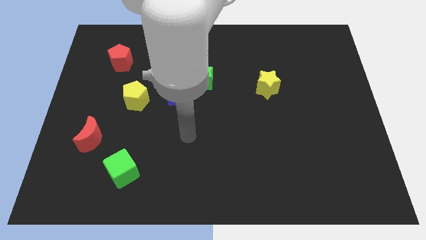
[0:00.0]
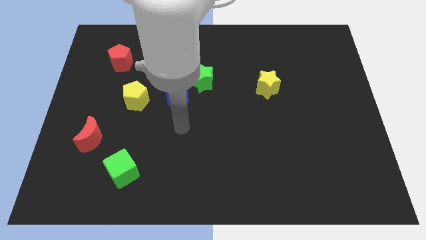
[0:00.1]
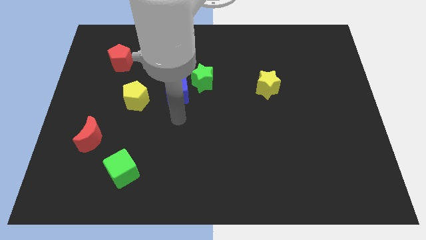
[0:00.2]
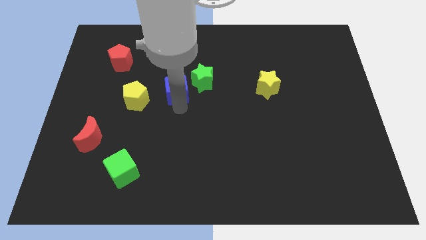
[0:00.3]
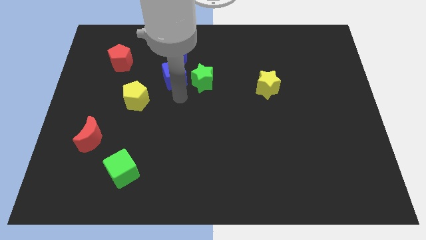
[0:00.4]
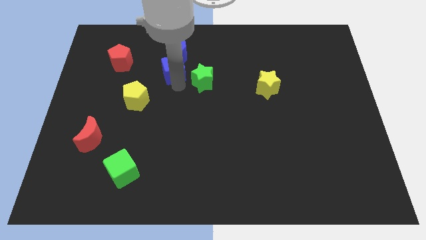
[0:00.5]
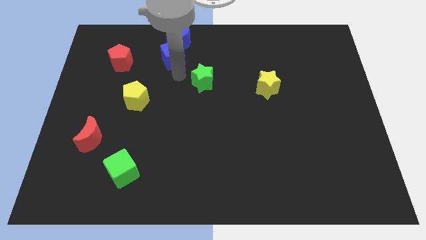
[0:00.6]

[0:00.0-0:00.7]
pull the green star apart from the blue cube

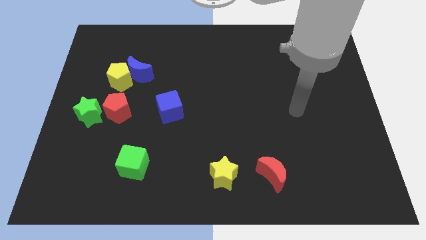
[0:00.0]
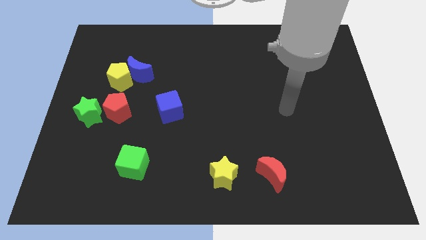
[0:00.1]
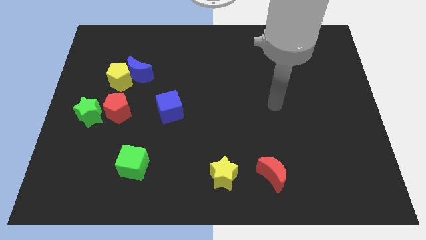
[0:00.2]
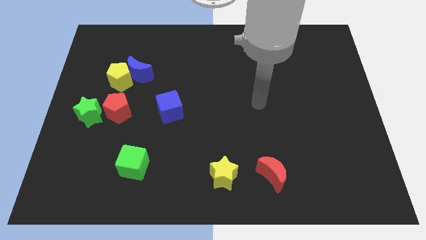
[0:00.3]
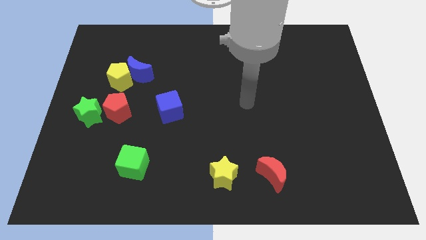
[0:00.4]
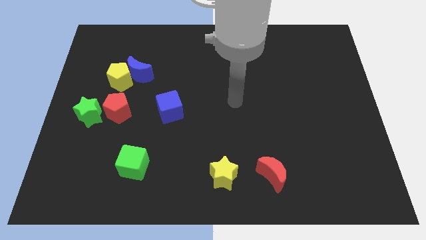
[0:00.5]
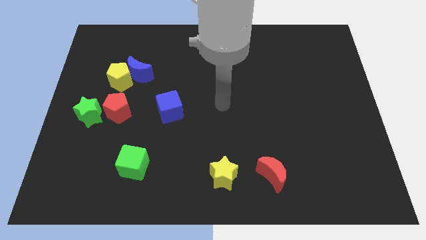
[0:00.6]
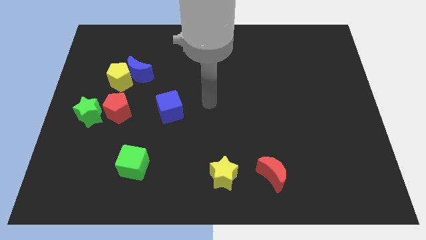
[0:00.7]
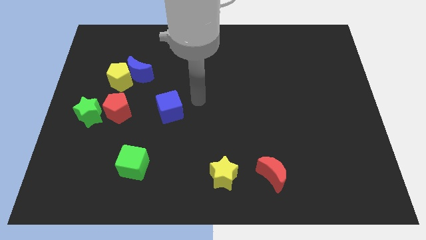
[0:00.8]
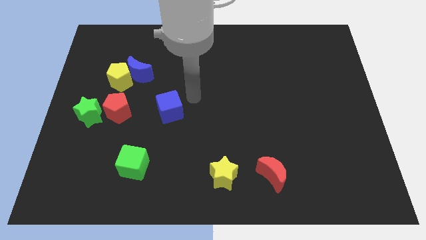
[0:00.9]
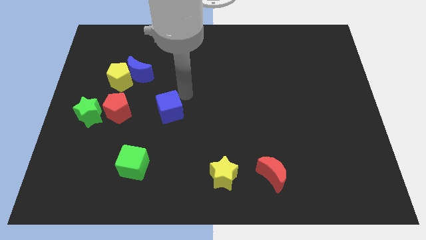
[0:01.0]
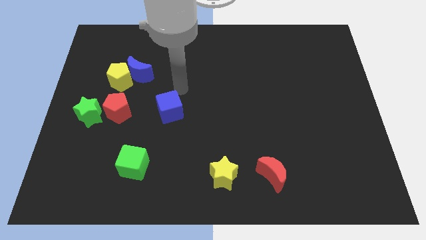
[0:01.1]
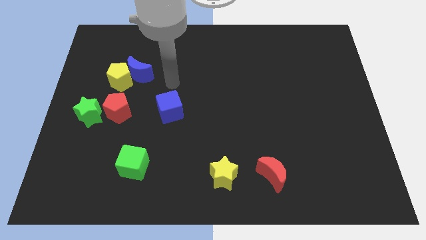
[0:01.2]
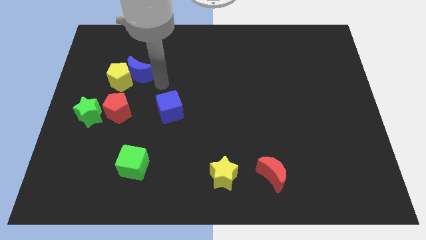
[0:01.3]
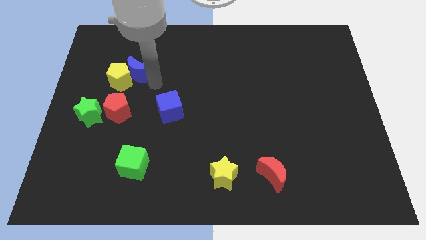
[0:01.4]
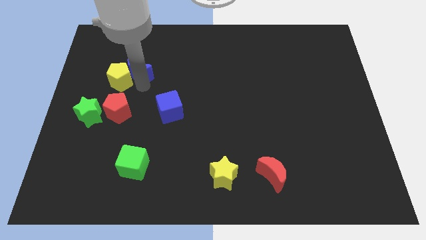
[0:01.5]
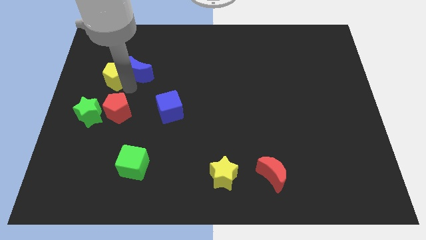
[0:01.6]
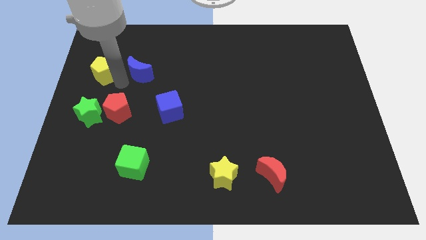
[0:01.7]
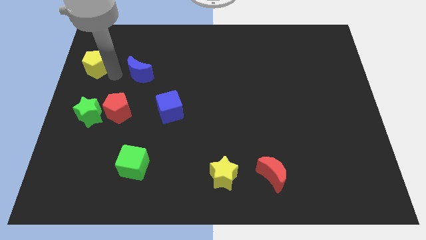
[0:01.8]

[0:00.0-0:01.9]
move the blue moon away from the yellow pentagon

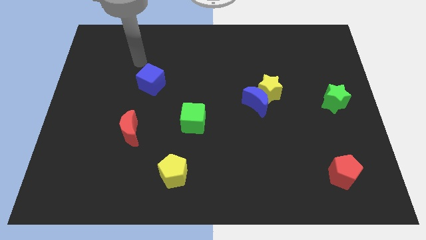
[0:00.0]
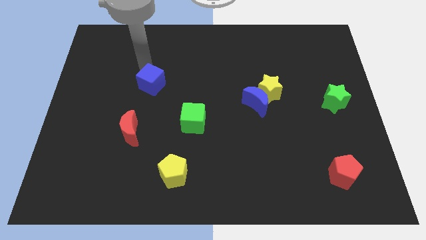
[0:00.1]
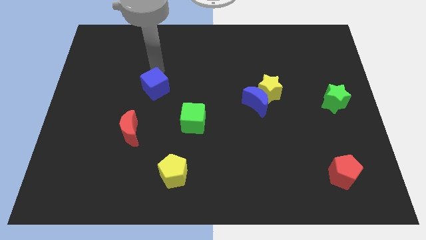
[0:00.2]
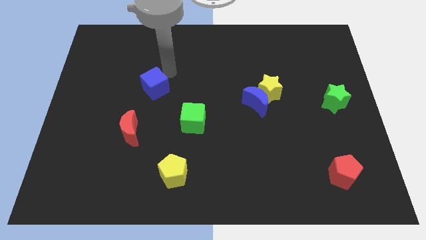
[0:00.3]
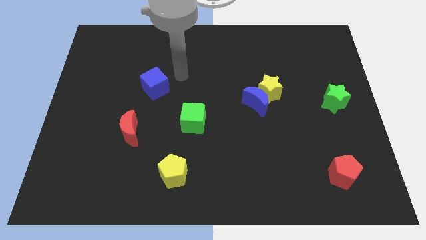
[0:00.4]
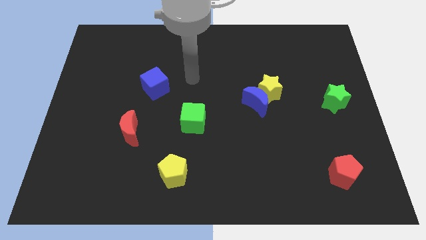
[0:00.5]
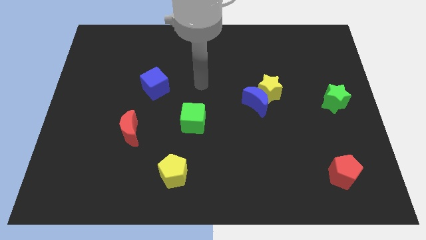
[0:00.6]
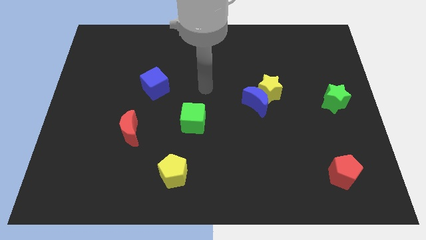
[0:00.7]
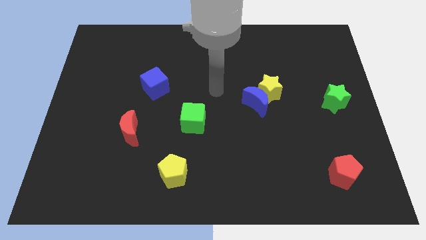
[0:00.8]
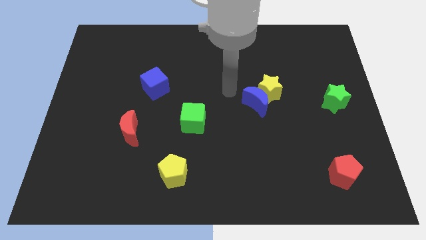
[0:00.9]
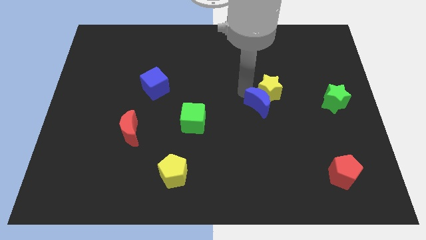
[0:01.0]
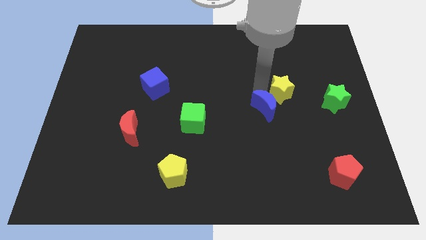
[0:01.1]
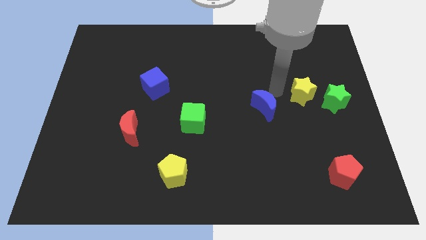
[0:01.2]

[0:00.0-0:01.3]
separate the blue moon from the yellow star

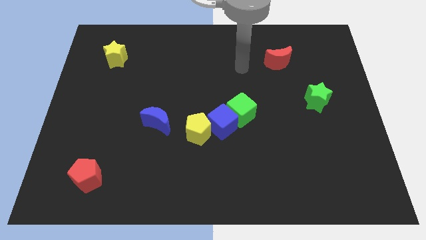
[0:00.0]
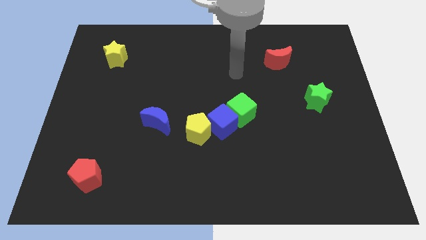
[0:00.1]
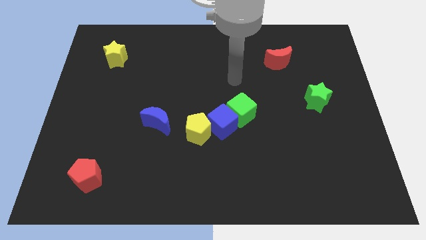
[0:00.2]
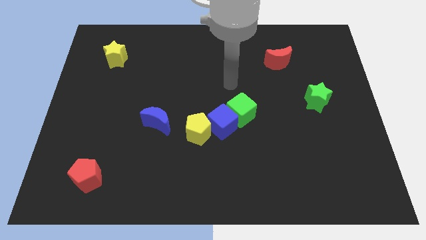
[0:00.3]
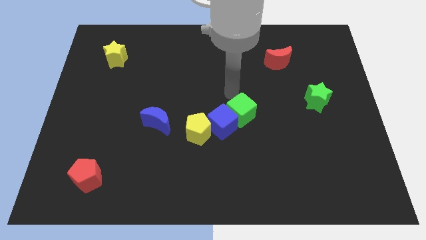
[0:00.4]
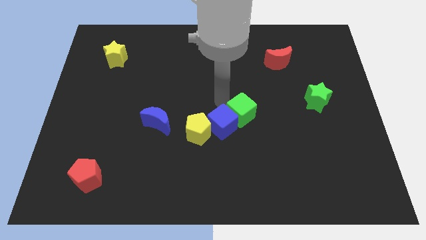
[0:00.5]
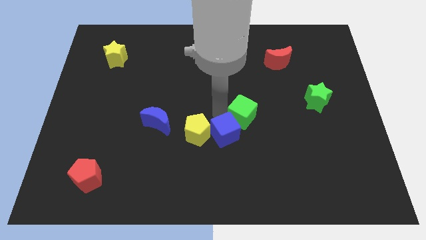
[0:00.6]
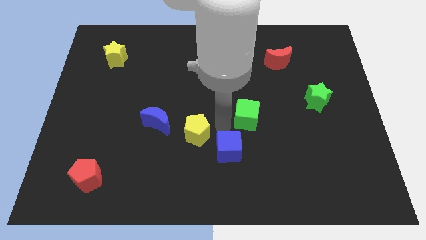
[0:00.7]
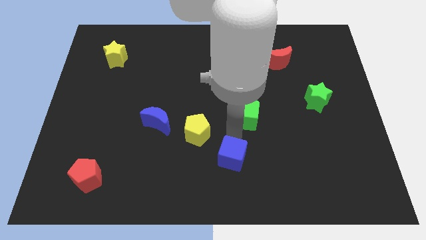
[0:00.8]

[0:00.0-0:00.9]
move the green cube away from the blue cube

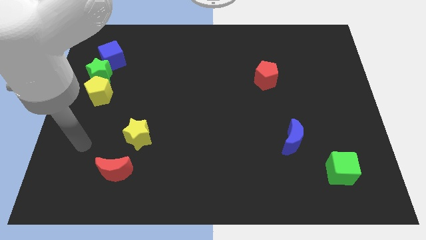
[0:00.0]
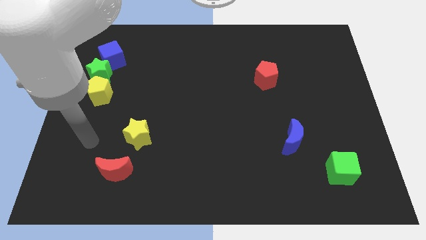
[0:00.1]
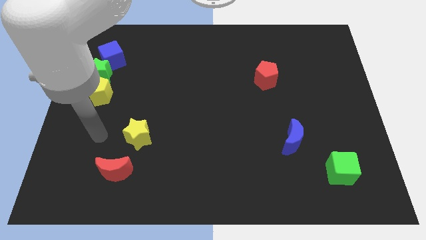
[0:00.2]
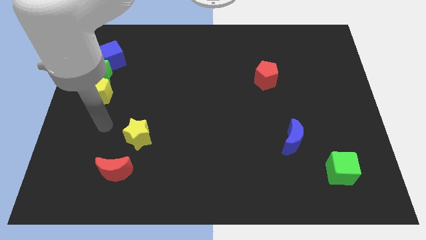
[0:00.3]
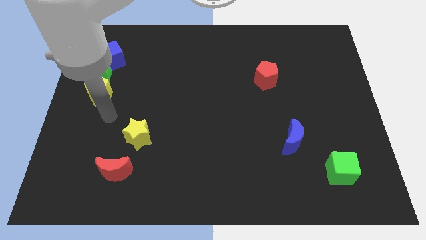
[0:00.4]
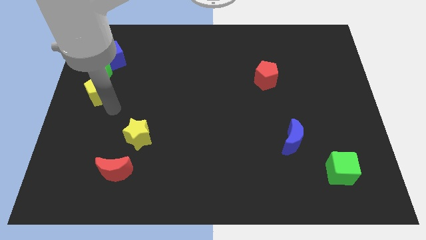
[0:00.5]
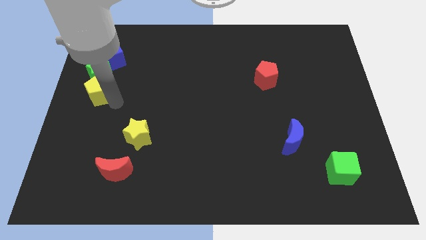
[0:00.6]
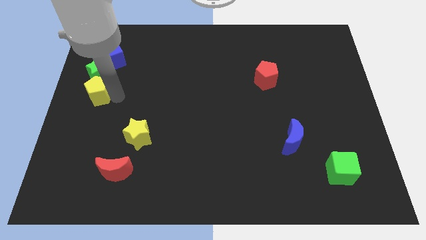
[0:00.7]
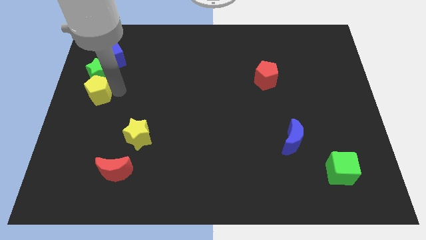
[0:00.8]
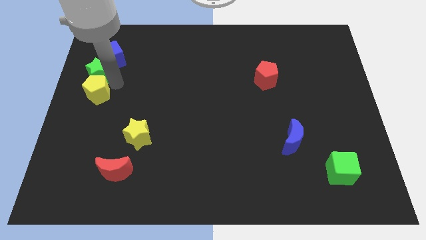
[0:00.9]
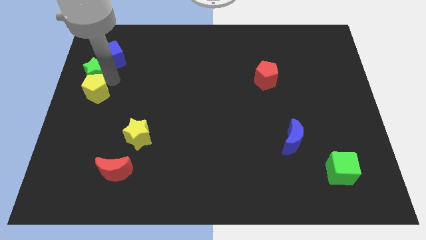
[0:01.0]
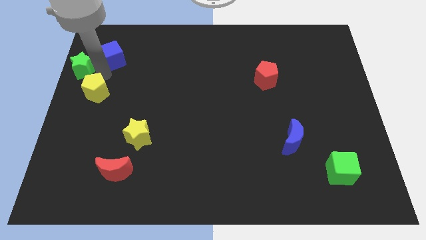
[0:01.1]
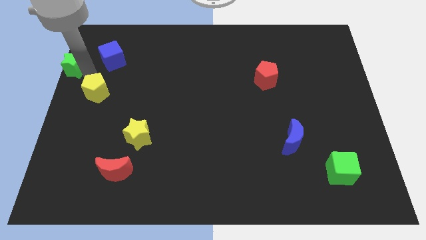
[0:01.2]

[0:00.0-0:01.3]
move the yellow pentagon away from the green star

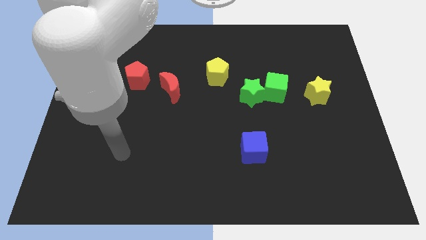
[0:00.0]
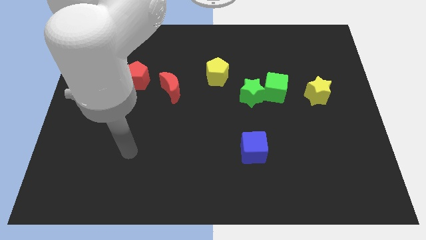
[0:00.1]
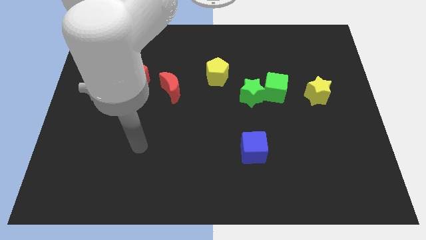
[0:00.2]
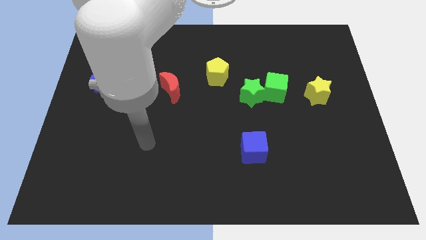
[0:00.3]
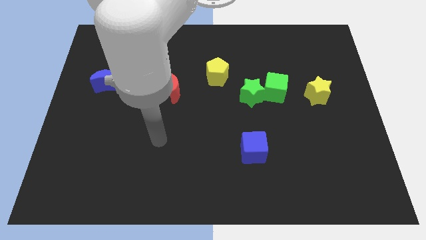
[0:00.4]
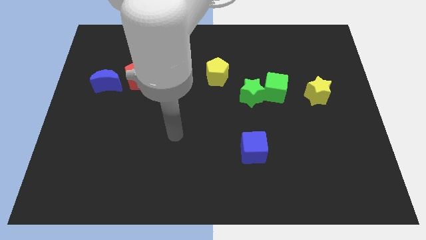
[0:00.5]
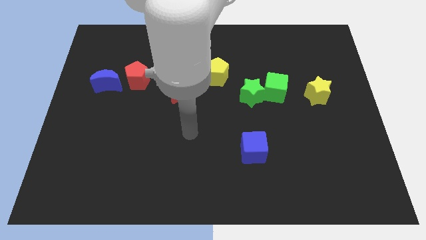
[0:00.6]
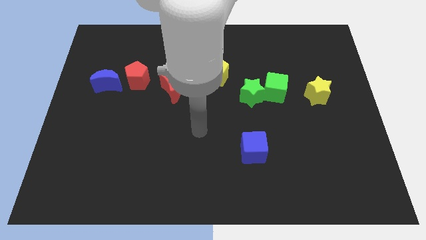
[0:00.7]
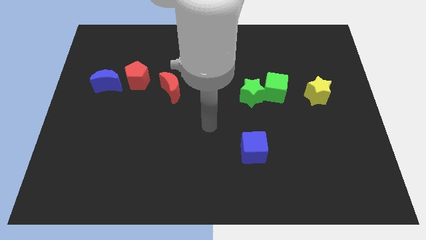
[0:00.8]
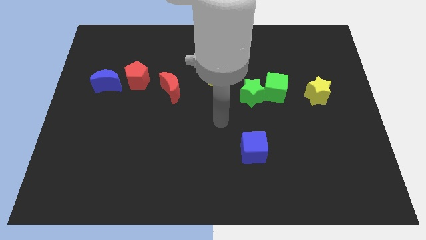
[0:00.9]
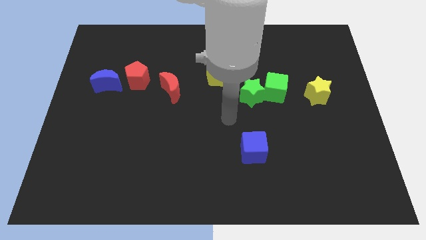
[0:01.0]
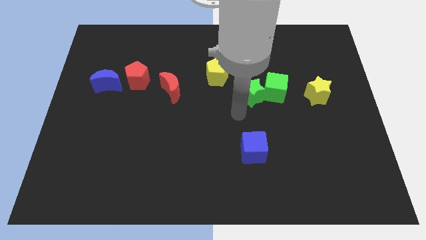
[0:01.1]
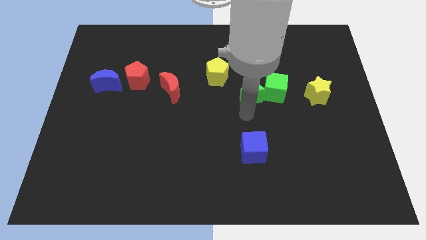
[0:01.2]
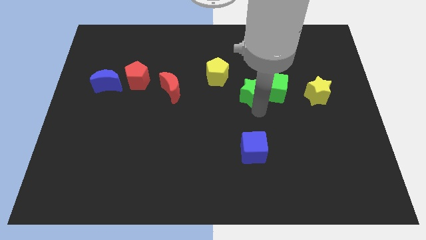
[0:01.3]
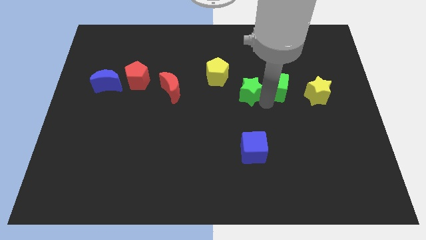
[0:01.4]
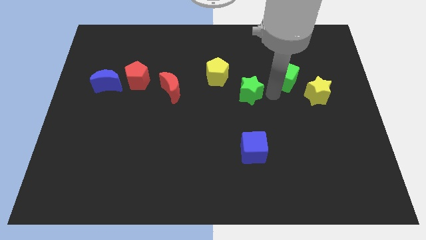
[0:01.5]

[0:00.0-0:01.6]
separate the green star from the green cube

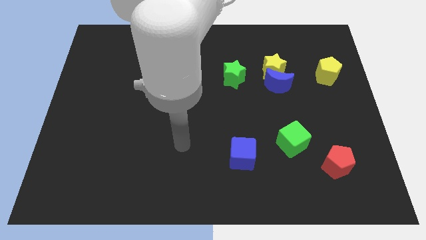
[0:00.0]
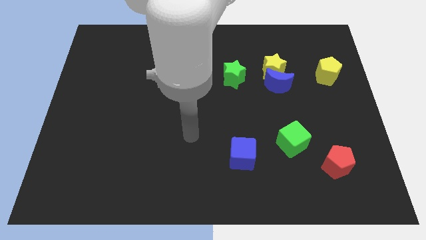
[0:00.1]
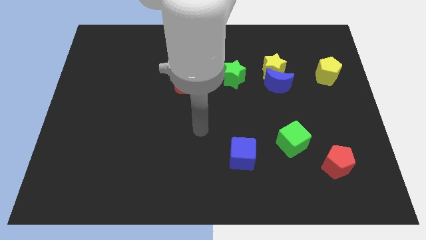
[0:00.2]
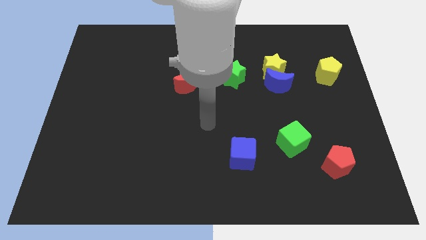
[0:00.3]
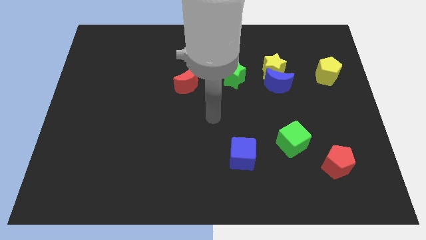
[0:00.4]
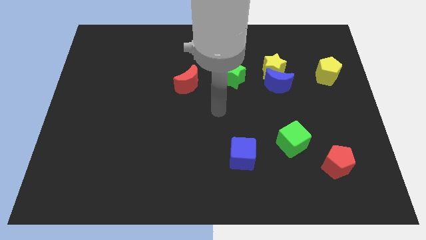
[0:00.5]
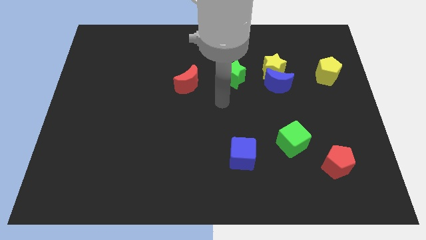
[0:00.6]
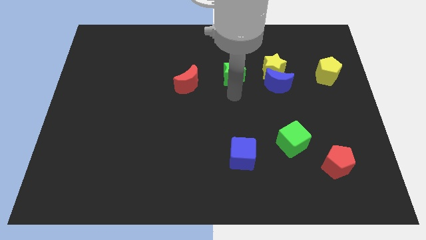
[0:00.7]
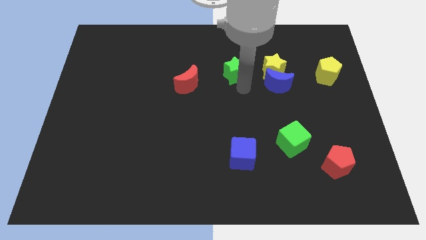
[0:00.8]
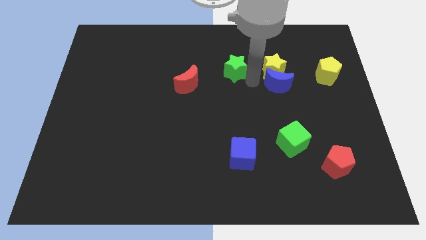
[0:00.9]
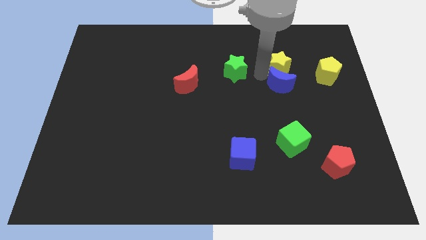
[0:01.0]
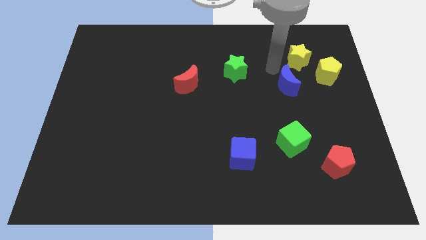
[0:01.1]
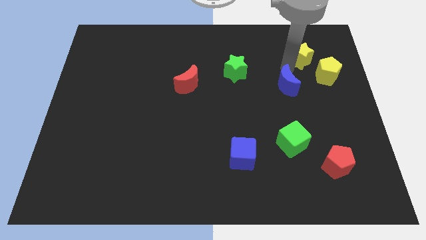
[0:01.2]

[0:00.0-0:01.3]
move the blue moon away from the yellow star

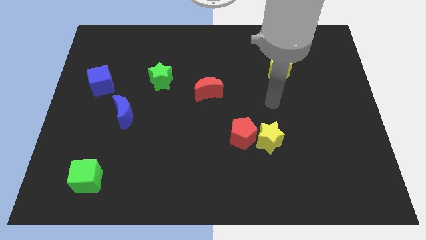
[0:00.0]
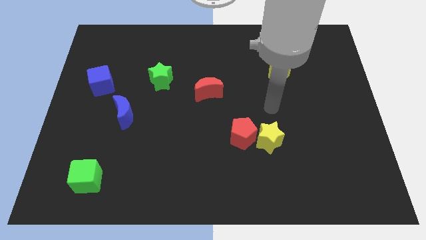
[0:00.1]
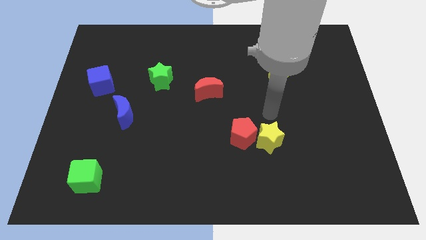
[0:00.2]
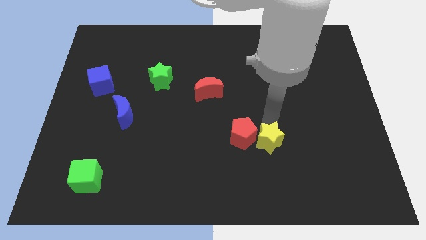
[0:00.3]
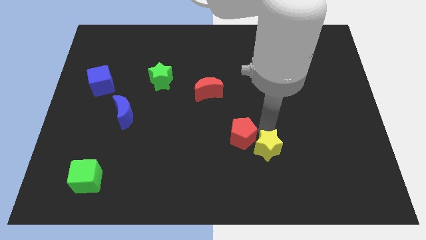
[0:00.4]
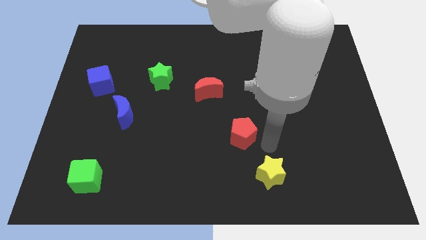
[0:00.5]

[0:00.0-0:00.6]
move the red pentagon away from the yellow star
